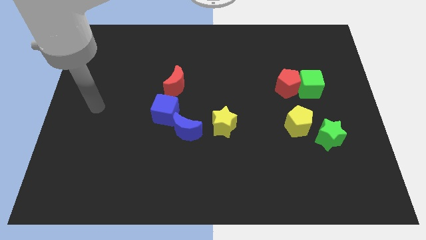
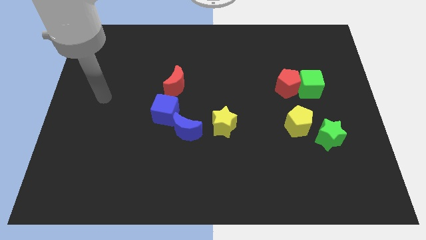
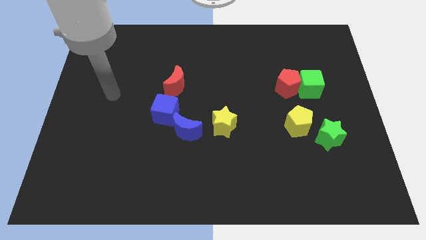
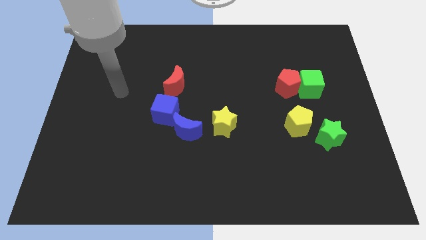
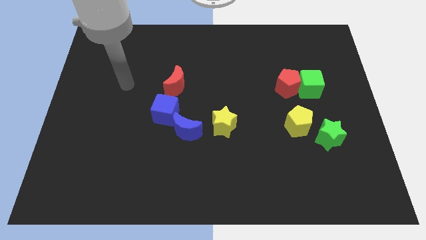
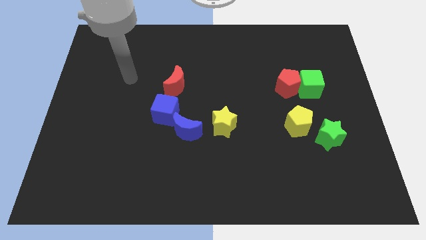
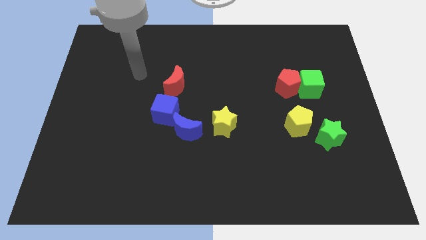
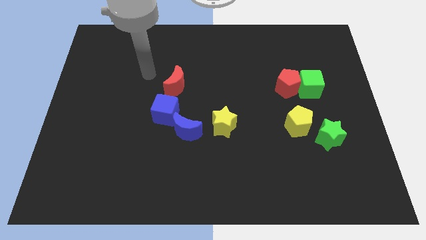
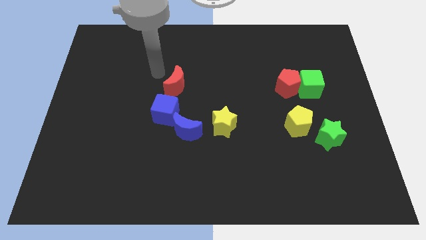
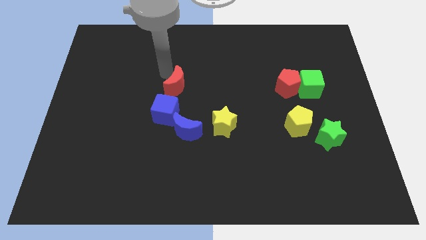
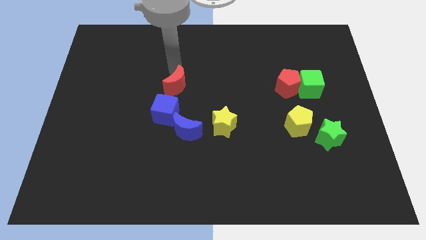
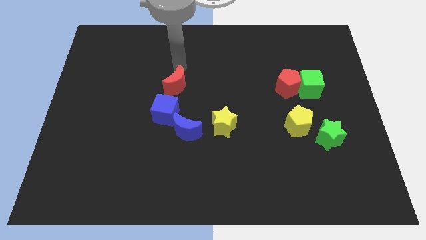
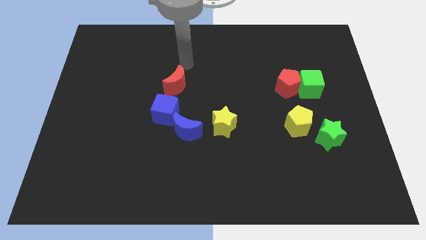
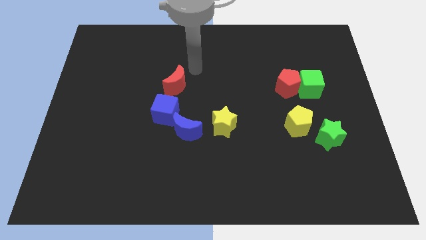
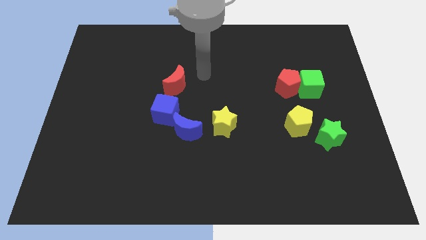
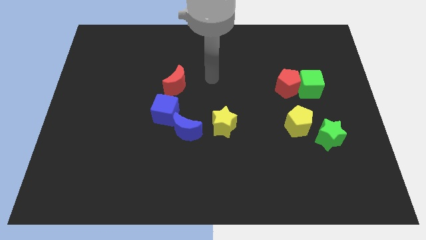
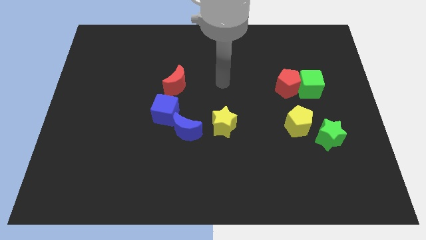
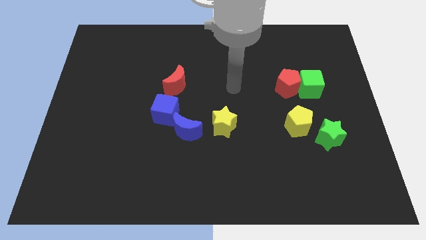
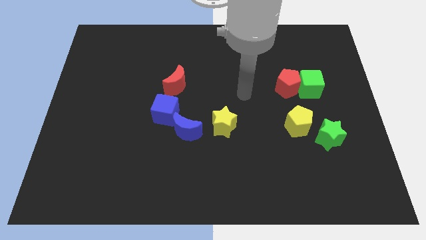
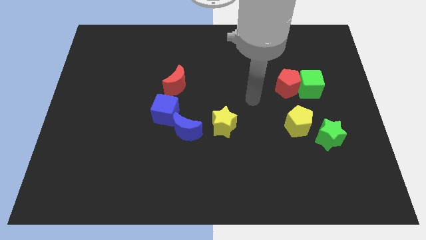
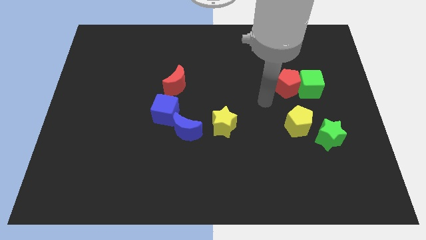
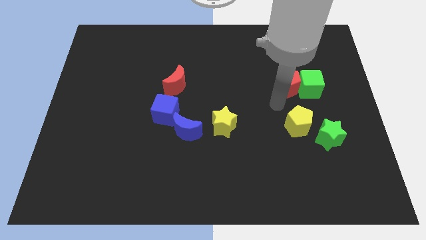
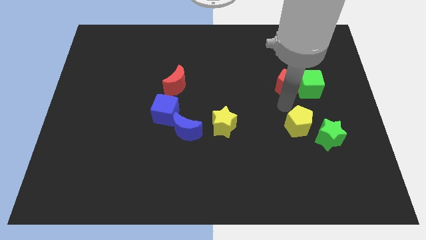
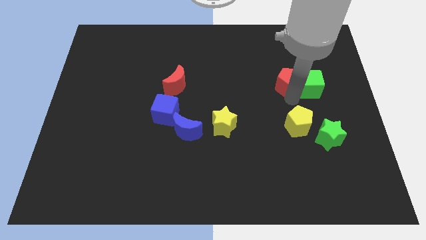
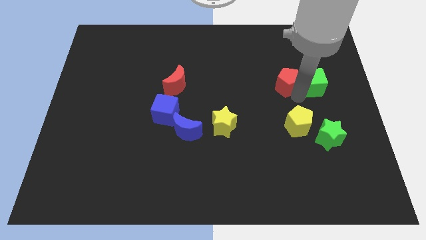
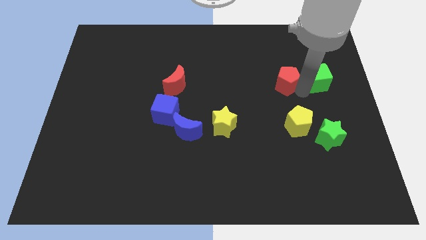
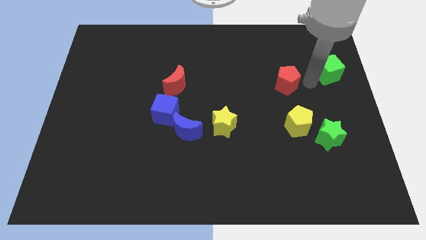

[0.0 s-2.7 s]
pull the red pentagon apart from the green cube

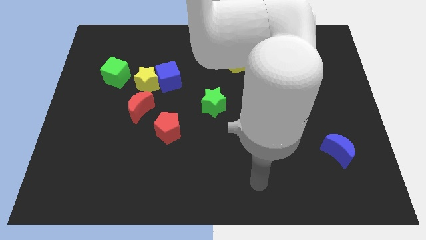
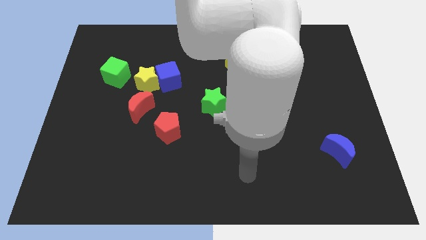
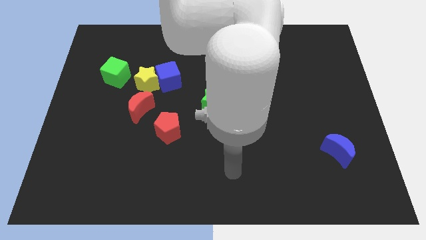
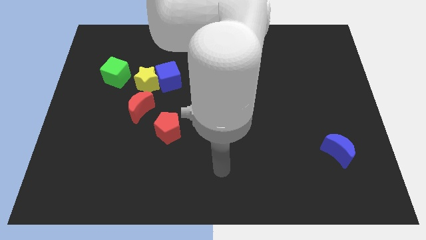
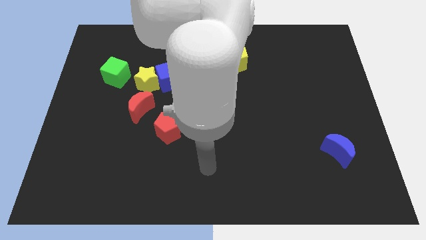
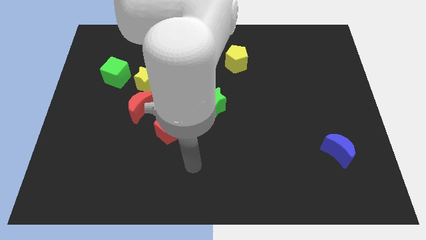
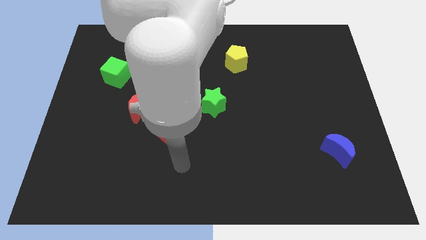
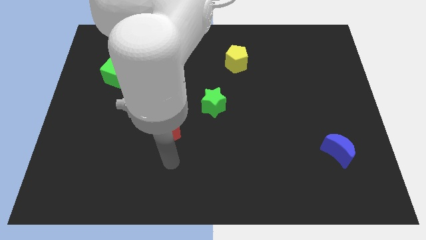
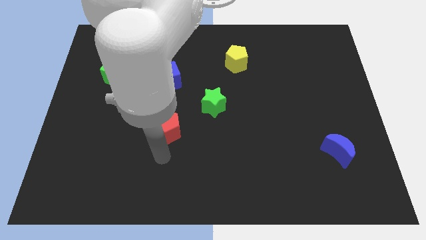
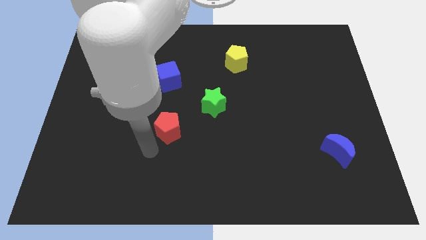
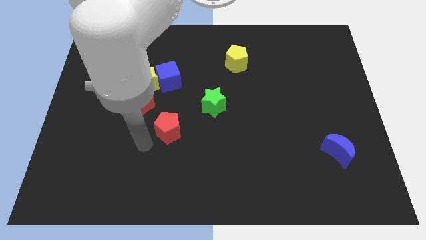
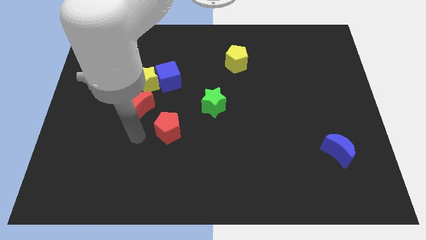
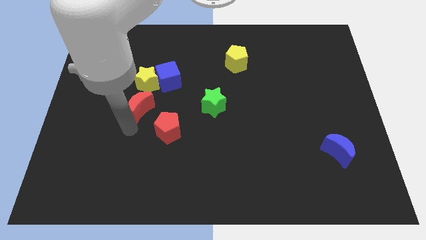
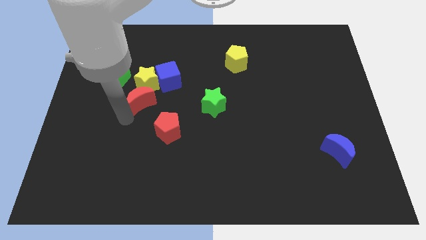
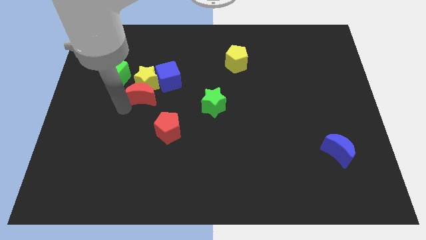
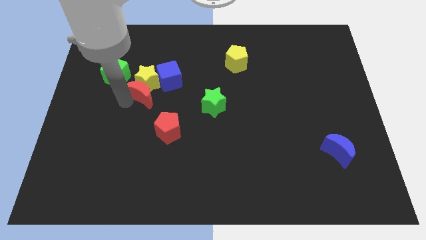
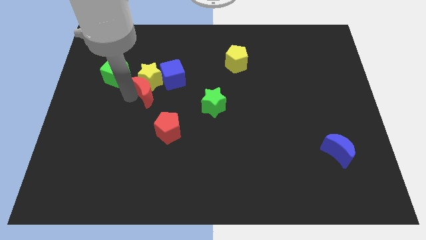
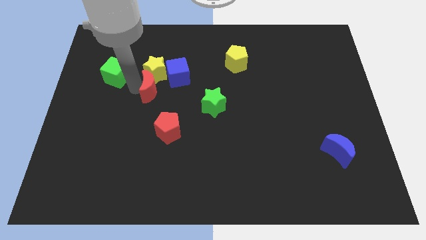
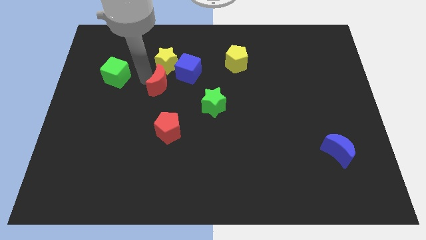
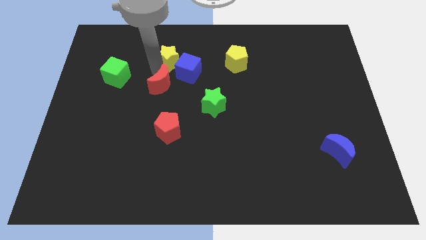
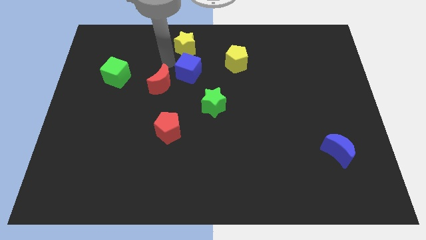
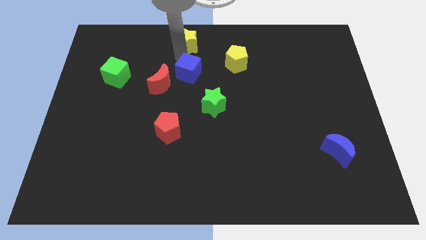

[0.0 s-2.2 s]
pull the blue cube apart from the yellow star

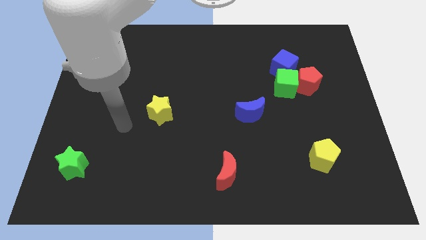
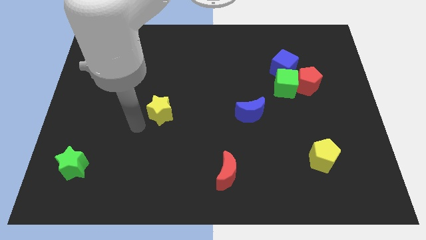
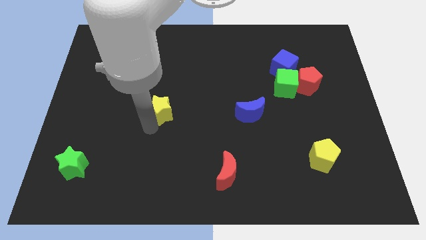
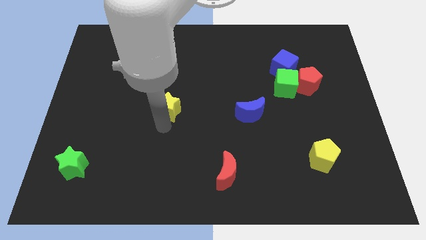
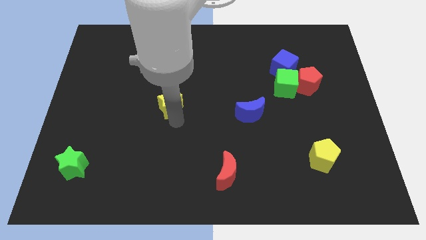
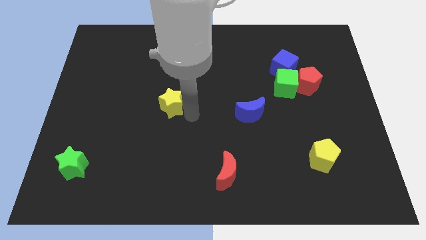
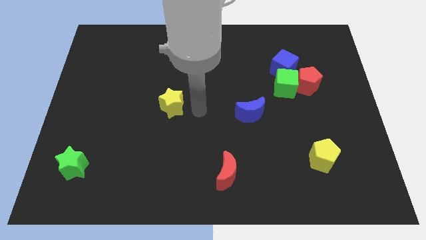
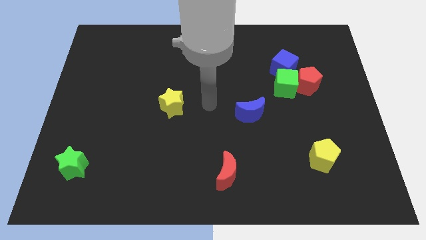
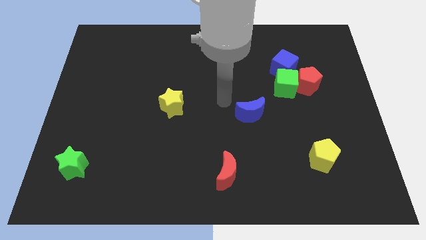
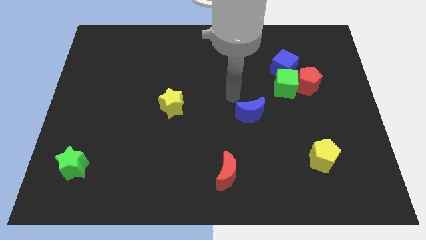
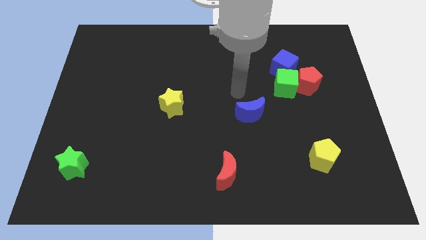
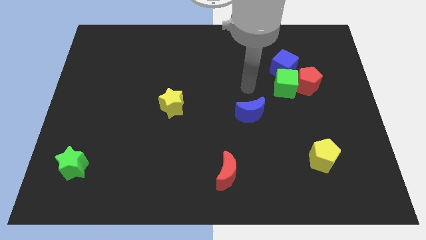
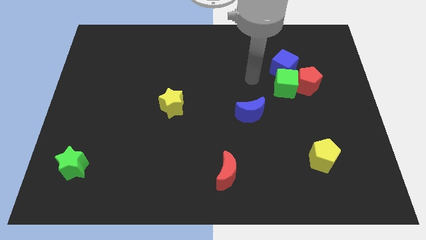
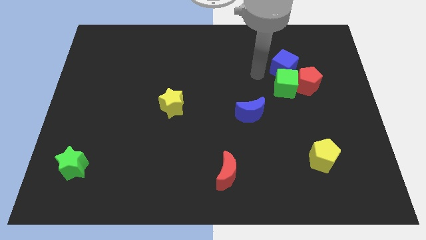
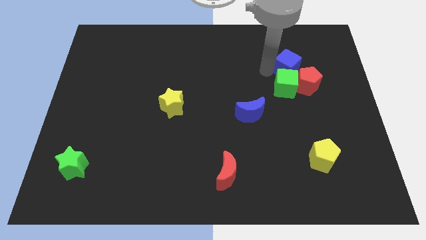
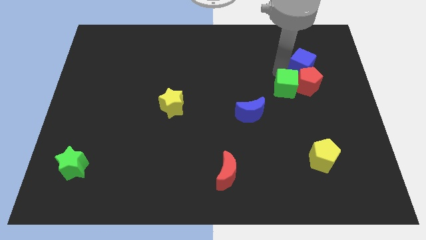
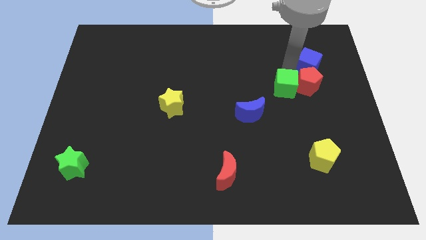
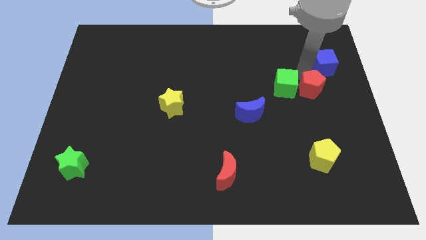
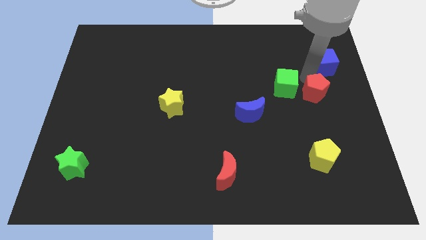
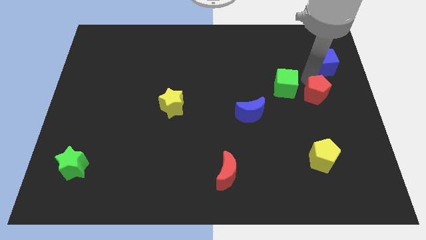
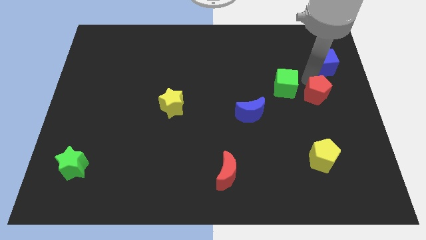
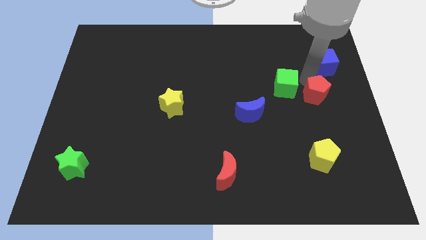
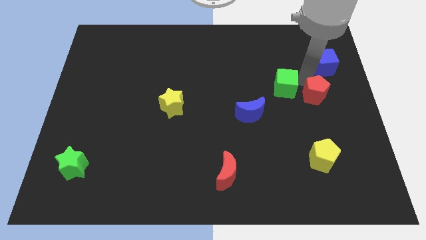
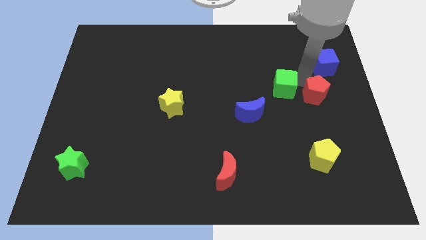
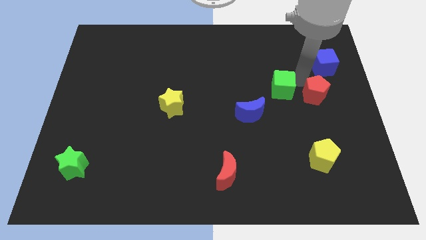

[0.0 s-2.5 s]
move the green cube away from the red pentagon and blue cube

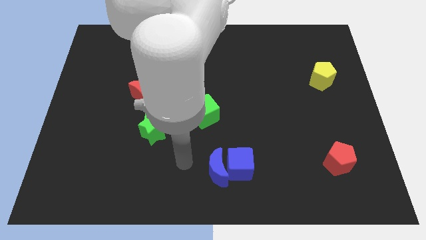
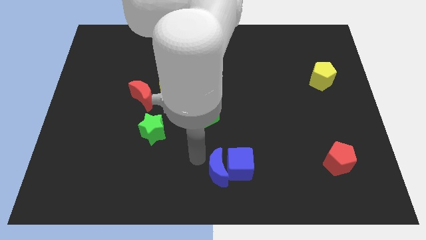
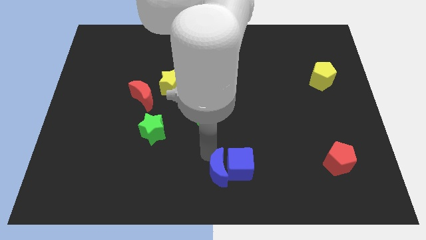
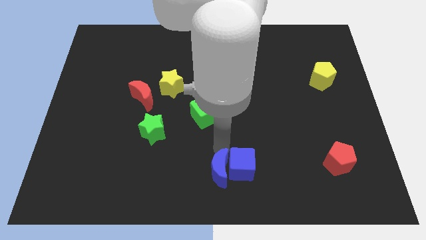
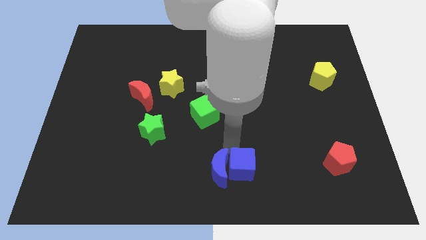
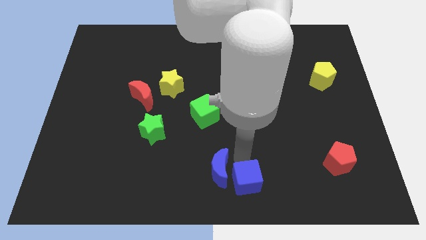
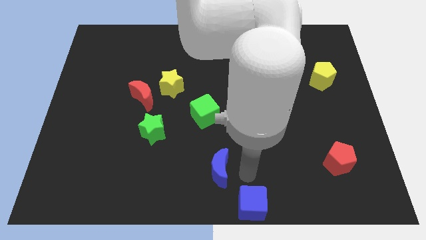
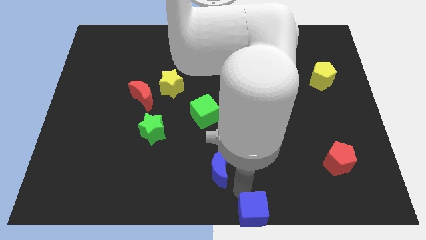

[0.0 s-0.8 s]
move the blue moon away from the blue cube

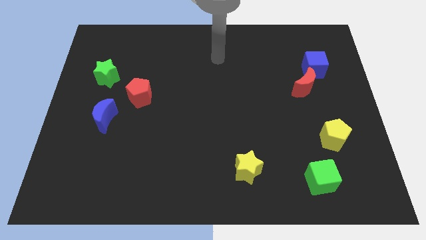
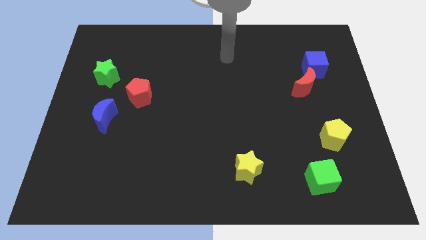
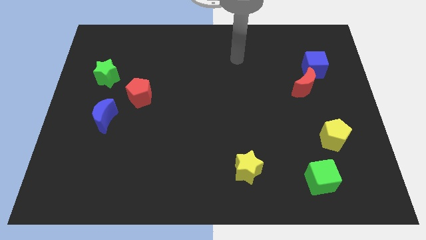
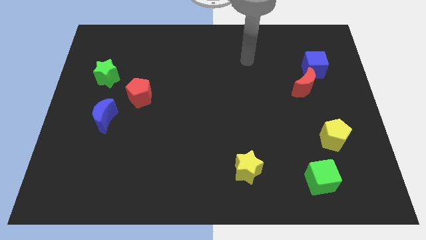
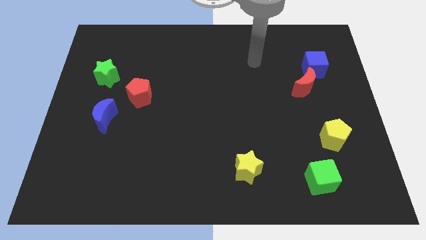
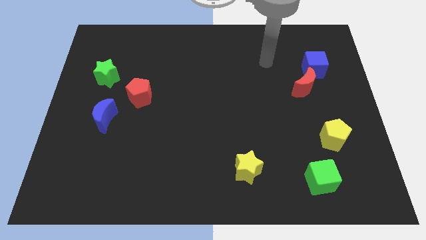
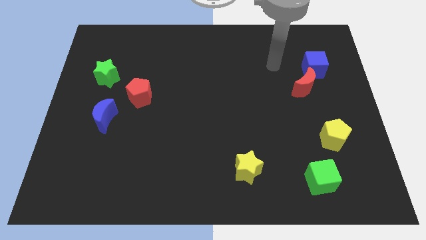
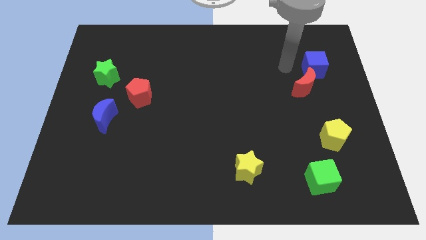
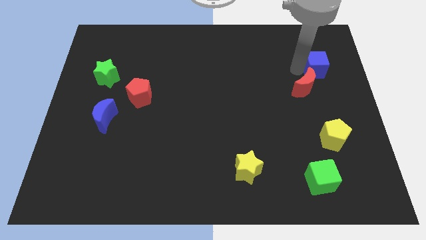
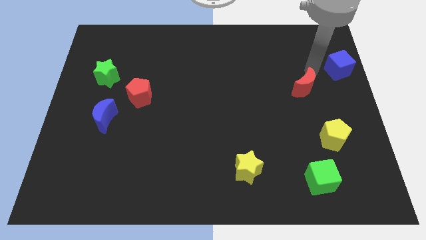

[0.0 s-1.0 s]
separate the red moon from the blue cube

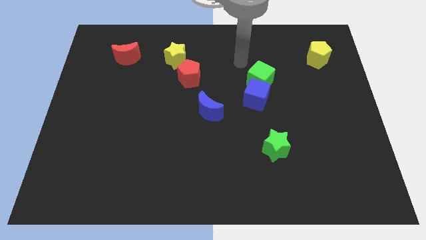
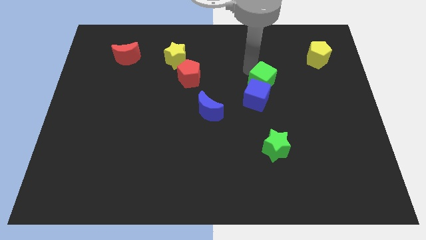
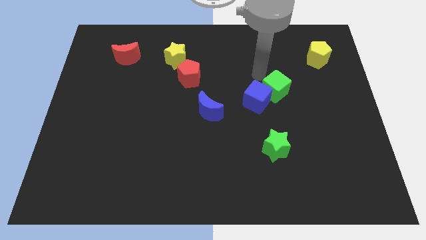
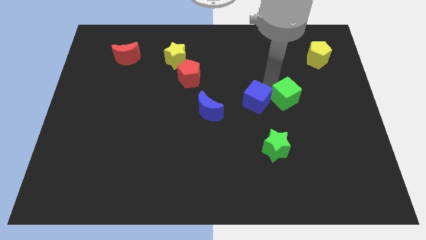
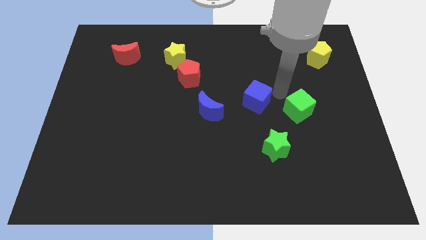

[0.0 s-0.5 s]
separate the blue cube from the green cube
